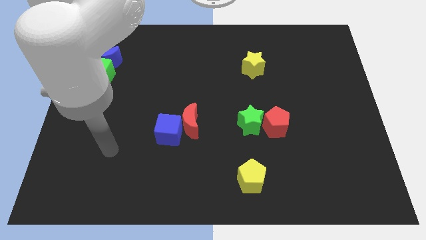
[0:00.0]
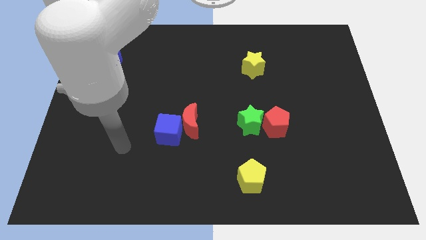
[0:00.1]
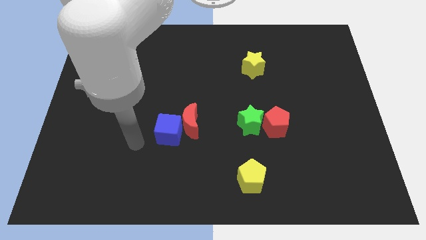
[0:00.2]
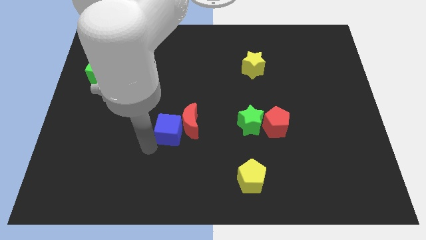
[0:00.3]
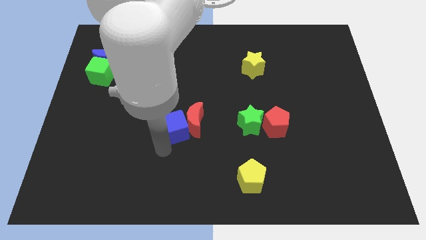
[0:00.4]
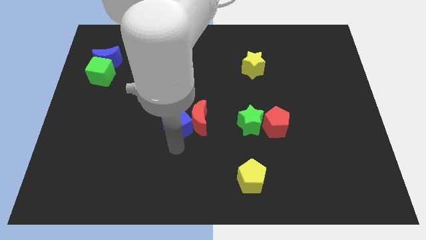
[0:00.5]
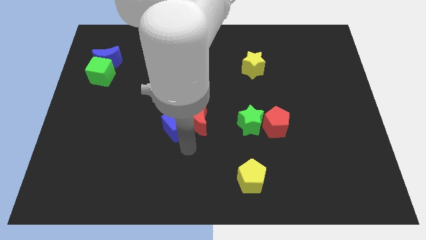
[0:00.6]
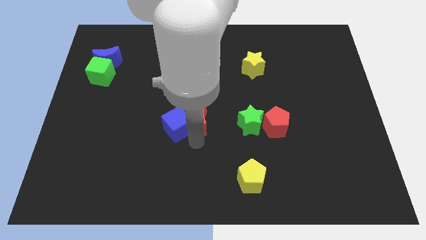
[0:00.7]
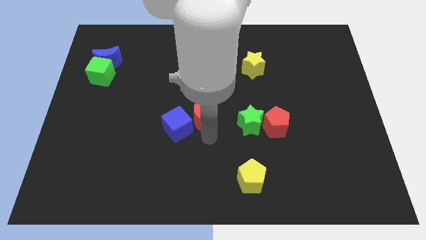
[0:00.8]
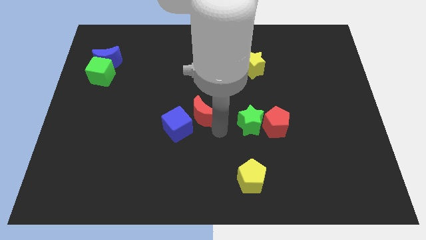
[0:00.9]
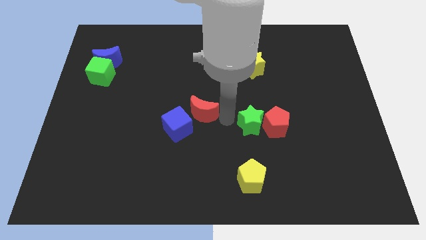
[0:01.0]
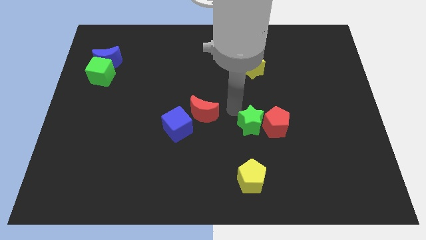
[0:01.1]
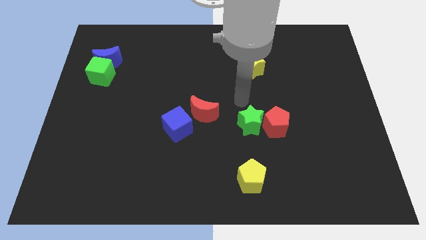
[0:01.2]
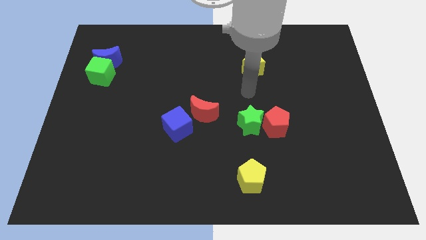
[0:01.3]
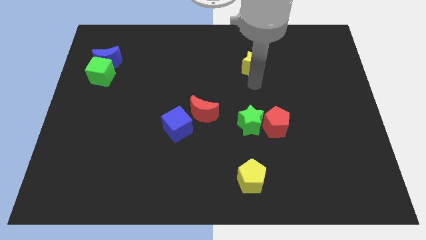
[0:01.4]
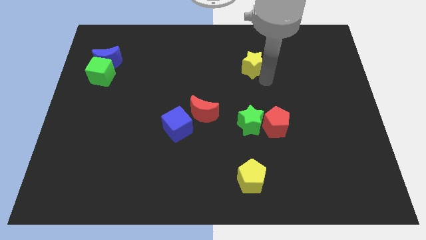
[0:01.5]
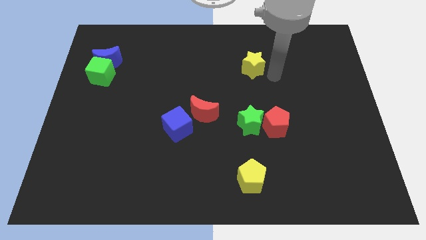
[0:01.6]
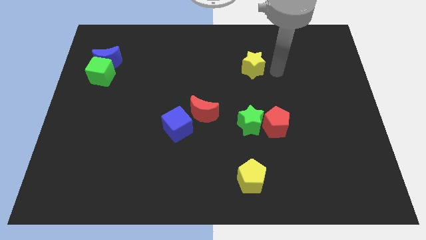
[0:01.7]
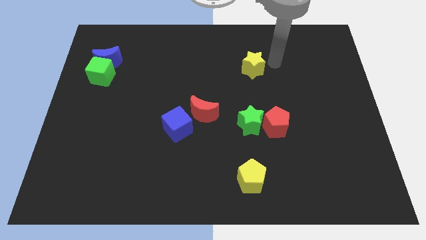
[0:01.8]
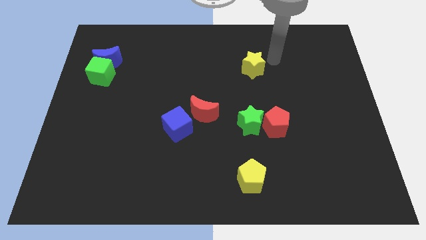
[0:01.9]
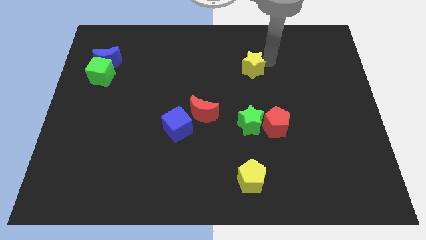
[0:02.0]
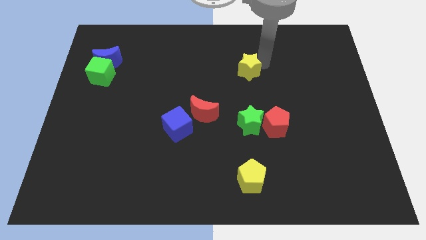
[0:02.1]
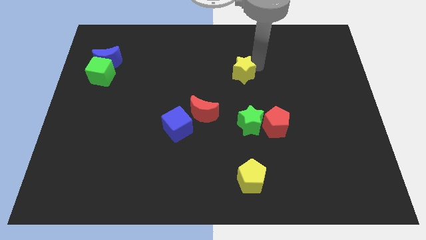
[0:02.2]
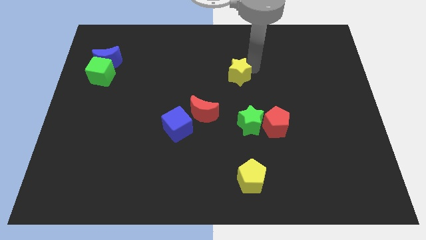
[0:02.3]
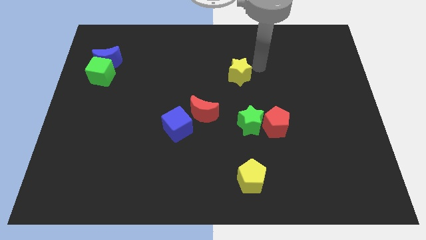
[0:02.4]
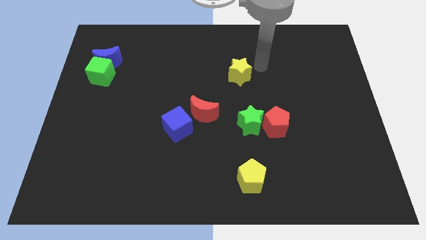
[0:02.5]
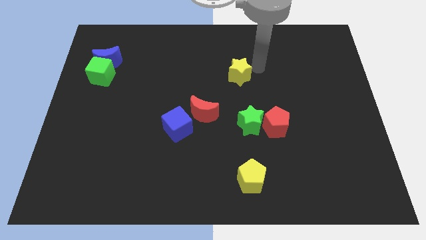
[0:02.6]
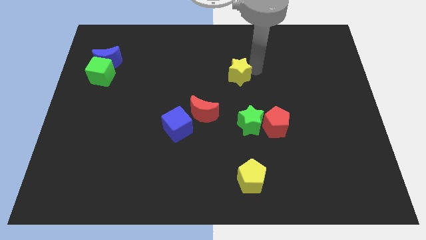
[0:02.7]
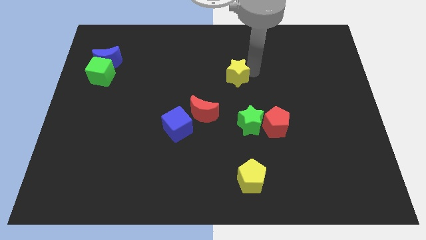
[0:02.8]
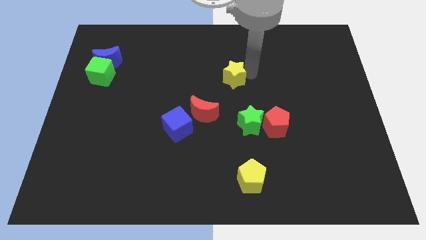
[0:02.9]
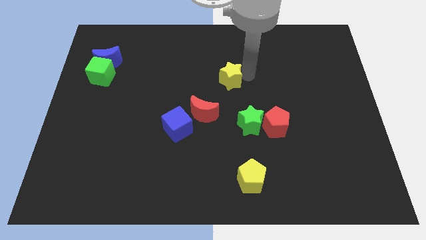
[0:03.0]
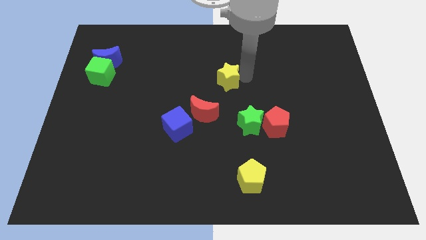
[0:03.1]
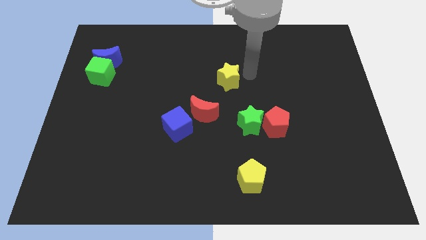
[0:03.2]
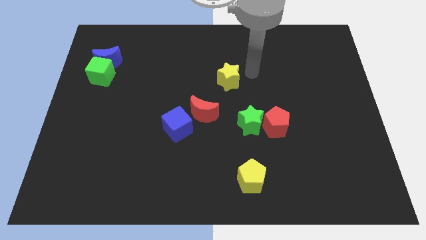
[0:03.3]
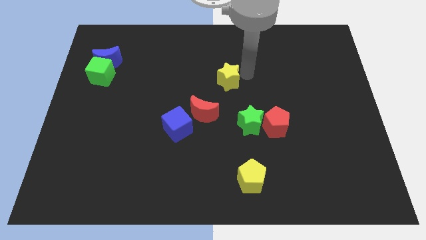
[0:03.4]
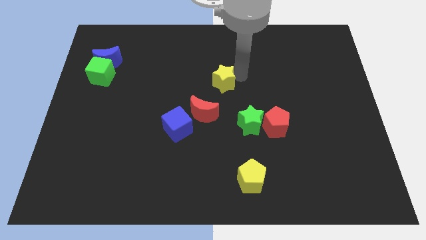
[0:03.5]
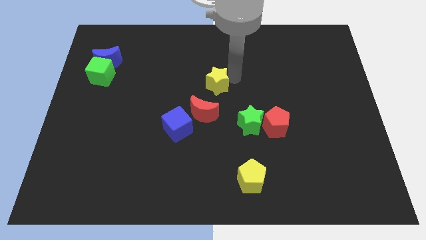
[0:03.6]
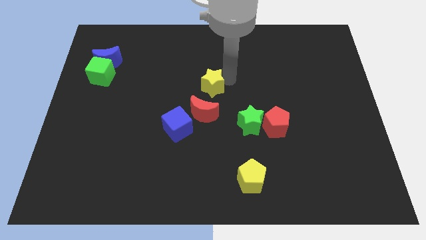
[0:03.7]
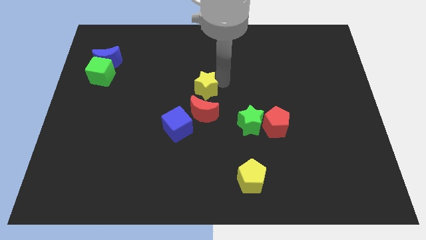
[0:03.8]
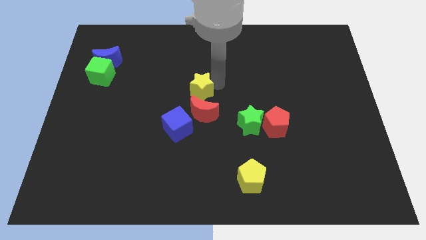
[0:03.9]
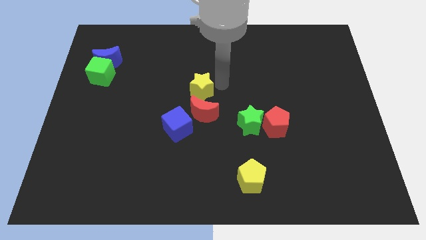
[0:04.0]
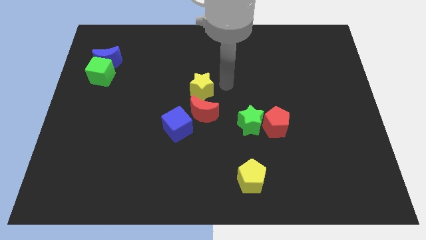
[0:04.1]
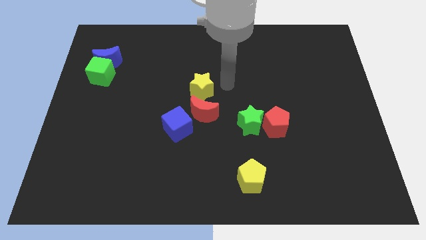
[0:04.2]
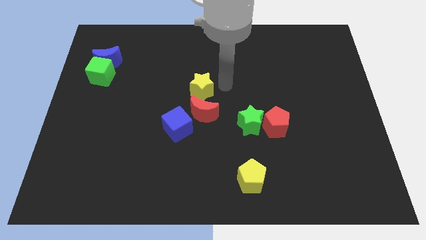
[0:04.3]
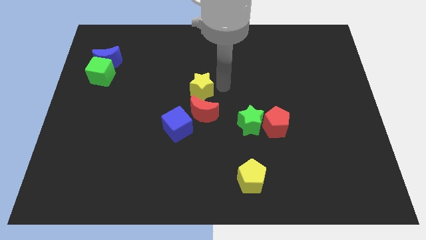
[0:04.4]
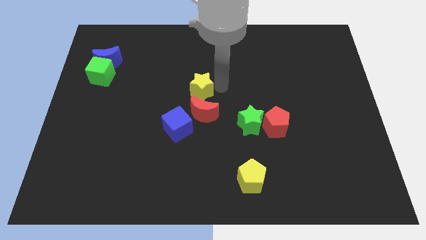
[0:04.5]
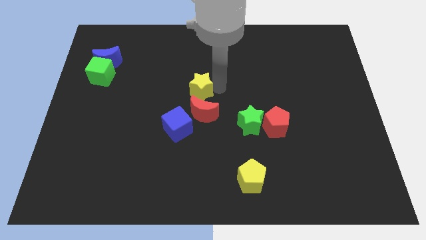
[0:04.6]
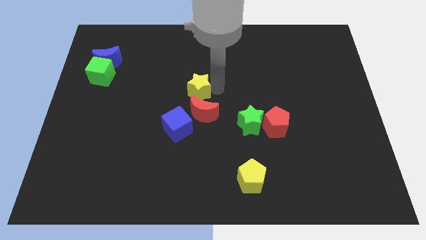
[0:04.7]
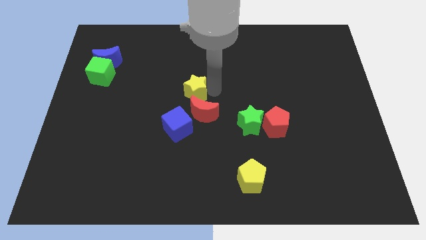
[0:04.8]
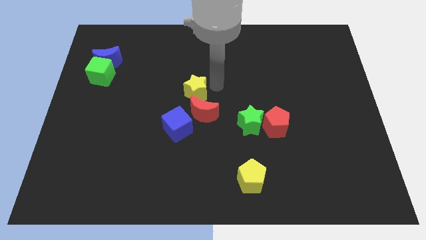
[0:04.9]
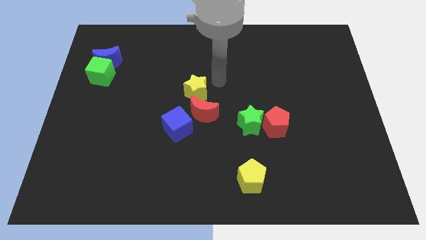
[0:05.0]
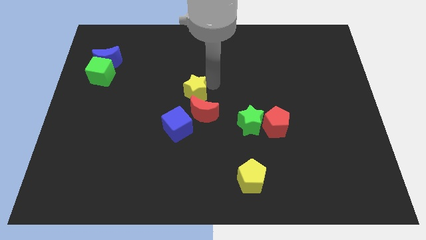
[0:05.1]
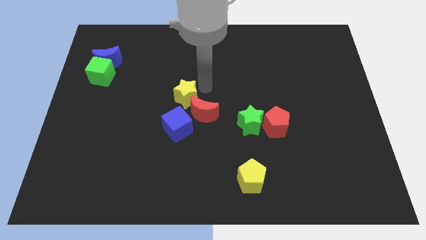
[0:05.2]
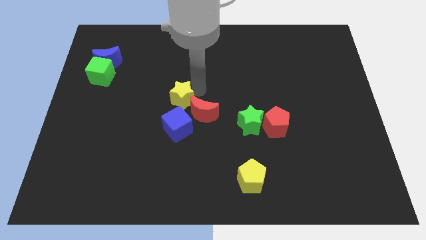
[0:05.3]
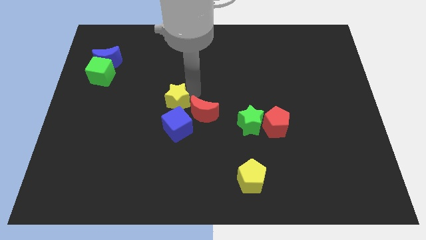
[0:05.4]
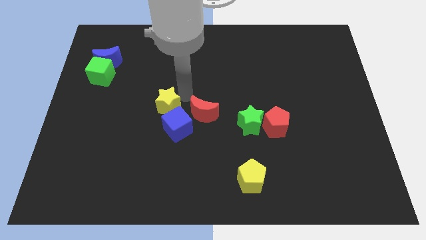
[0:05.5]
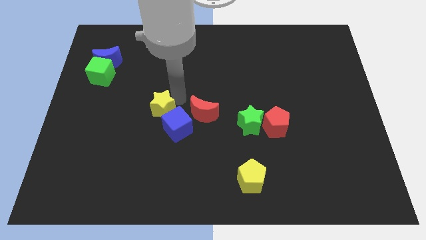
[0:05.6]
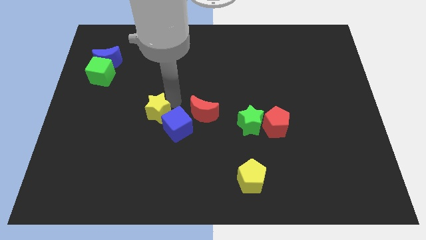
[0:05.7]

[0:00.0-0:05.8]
move the yellow star left of the blue cube
